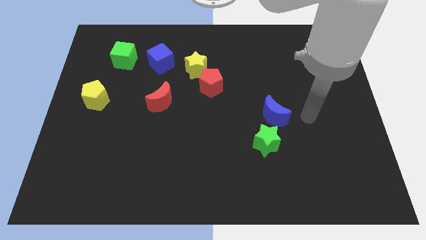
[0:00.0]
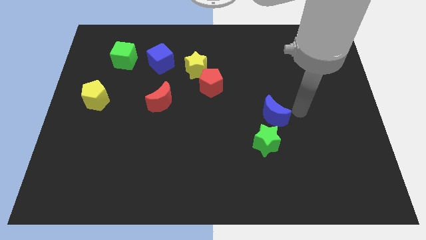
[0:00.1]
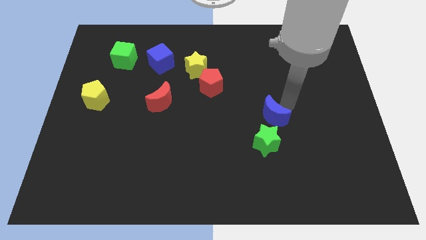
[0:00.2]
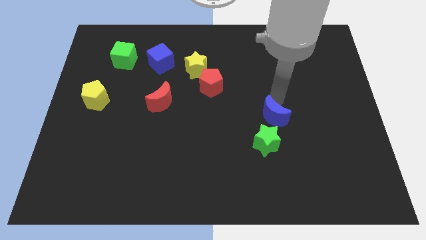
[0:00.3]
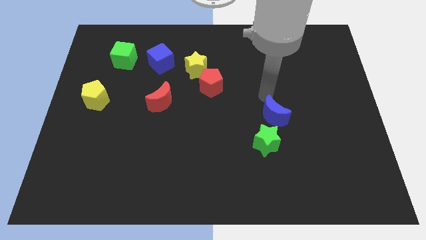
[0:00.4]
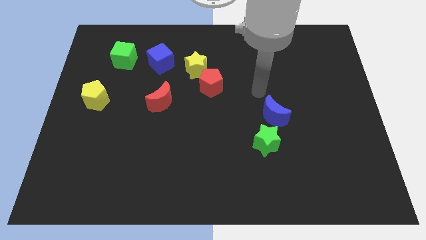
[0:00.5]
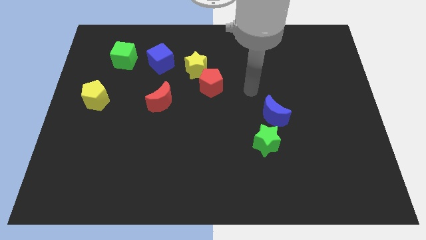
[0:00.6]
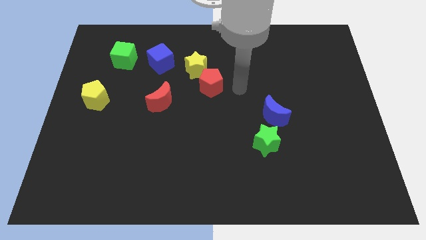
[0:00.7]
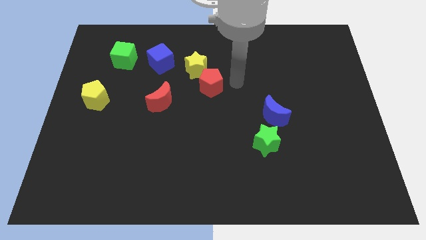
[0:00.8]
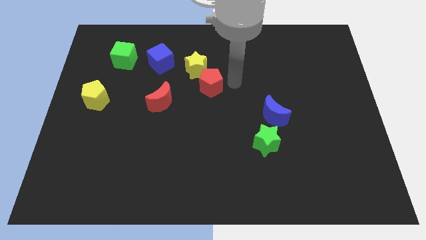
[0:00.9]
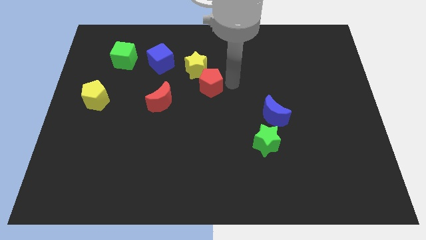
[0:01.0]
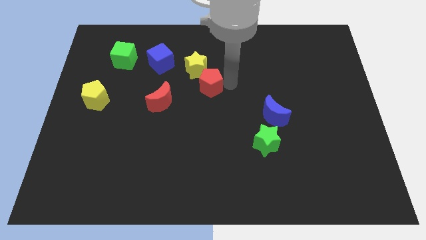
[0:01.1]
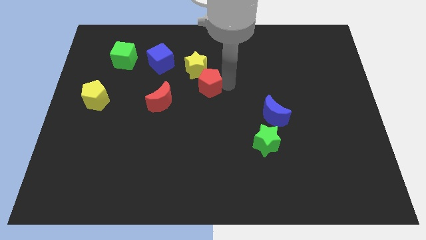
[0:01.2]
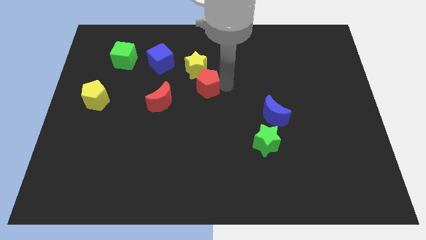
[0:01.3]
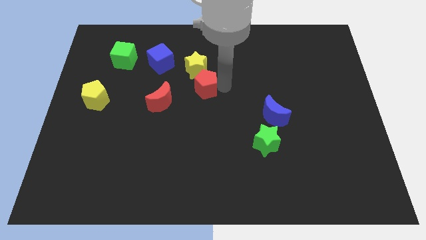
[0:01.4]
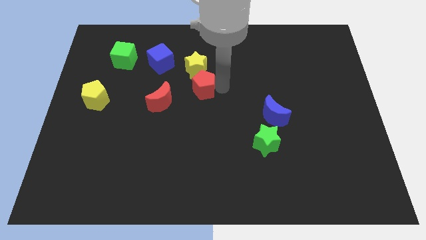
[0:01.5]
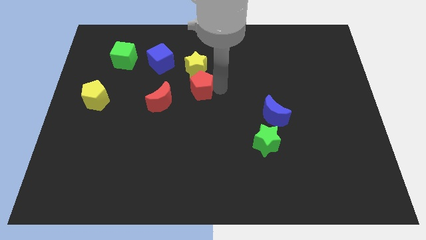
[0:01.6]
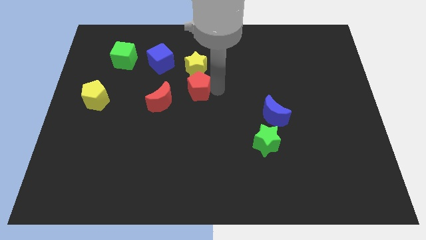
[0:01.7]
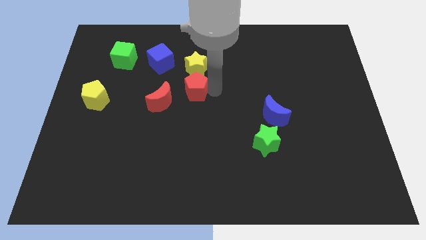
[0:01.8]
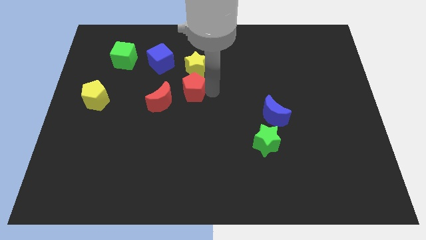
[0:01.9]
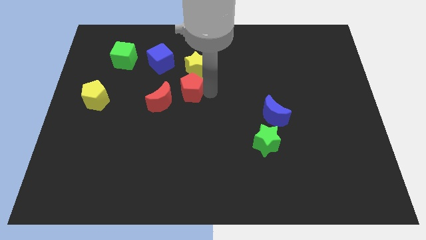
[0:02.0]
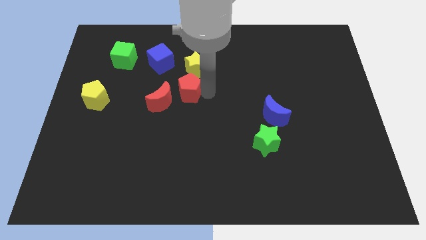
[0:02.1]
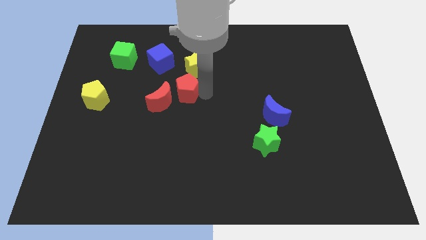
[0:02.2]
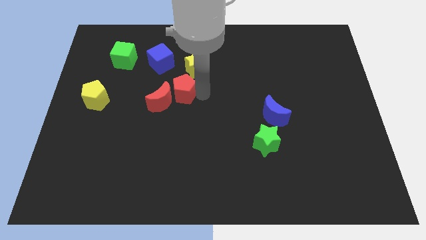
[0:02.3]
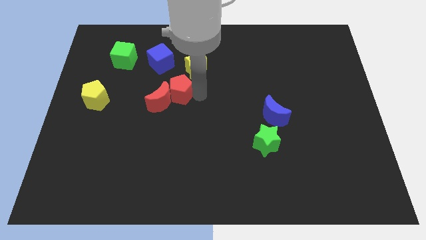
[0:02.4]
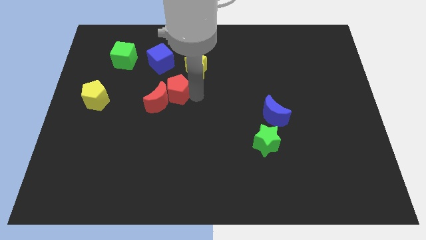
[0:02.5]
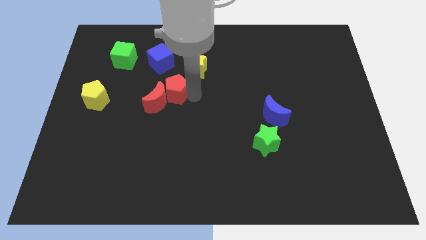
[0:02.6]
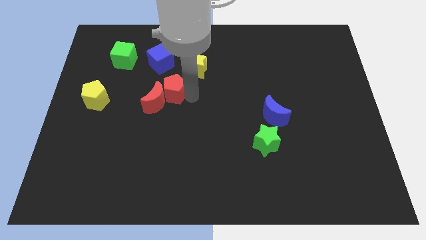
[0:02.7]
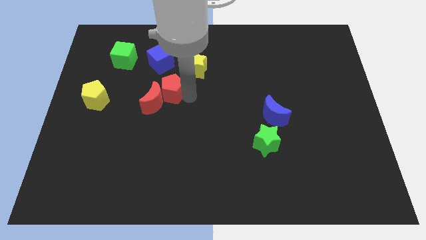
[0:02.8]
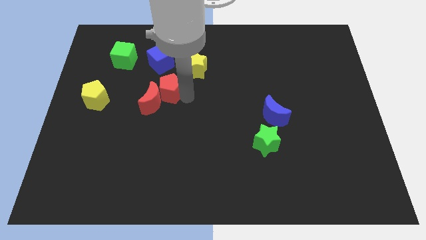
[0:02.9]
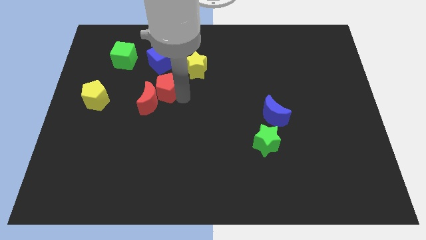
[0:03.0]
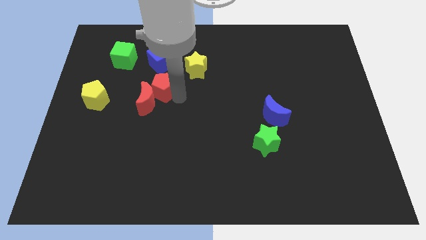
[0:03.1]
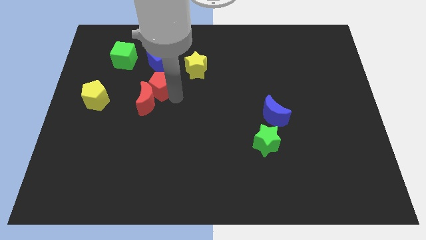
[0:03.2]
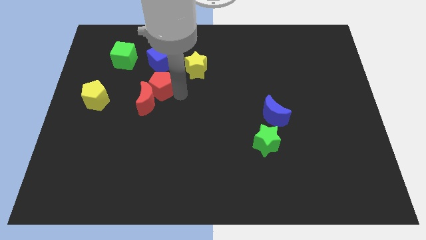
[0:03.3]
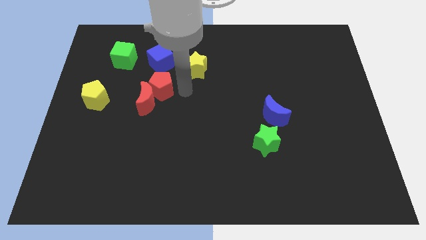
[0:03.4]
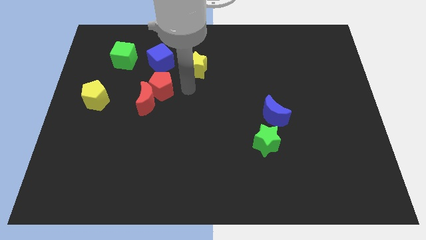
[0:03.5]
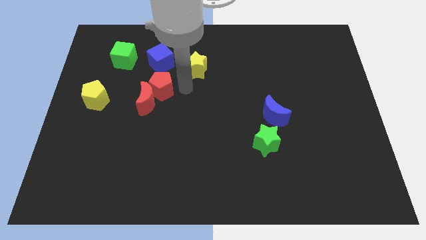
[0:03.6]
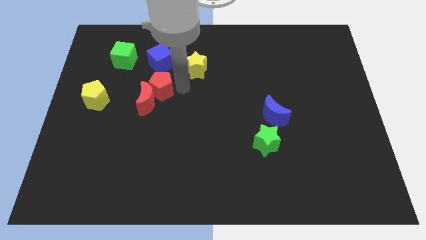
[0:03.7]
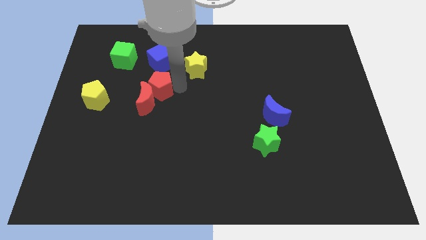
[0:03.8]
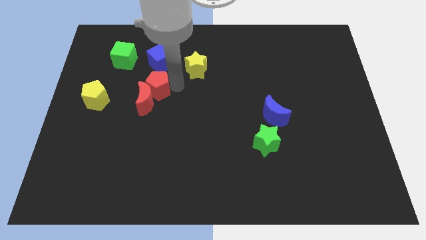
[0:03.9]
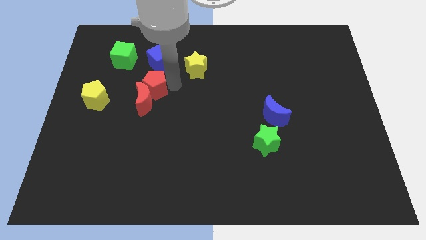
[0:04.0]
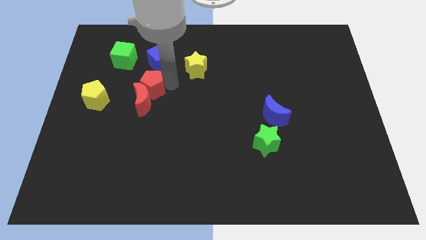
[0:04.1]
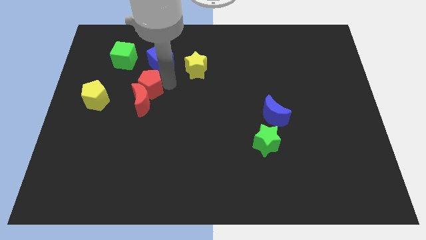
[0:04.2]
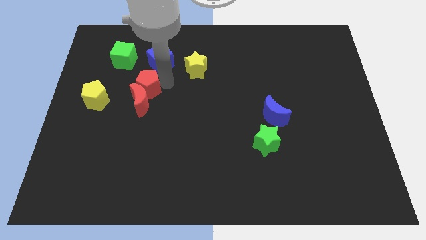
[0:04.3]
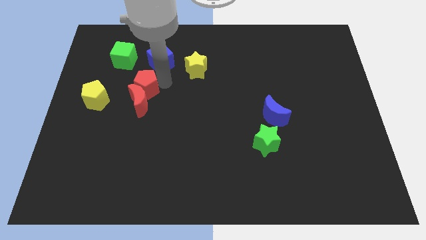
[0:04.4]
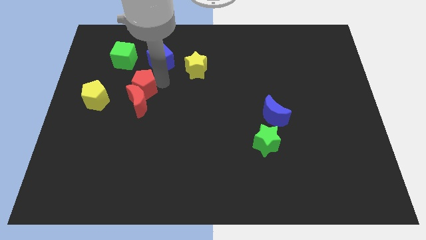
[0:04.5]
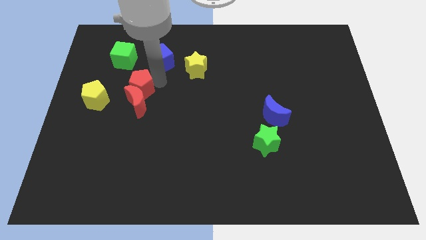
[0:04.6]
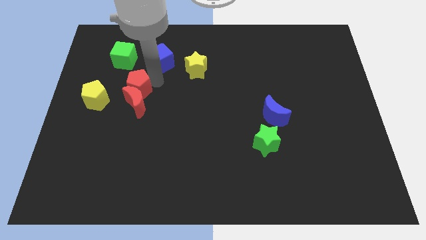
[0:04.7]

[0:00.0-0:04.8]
put the red pentagon to the bottom side of the green cube

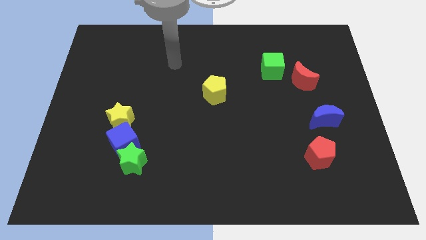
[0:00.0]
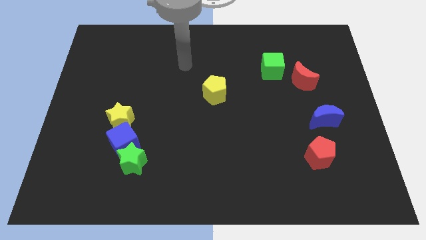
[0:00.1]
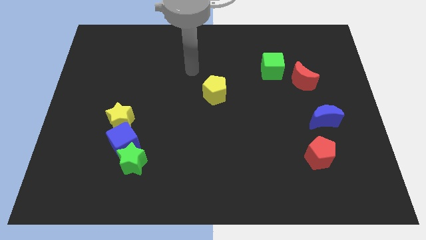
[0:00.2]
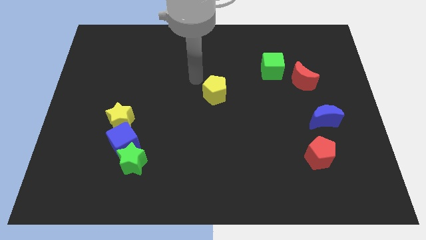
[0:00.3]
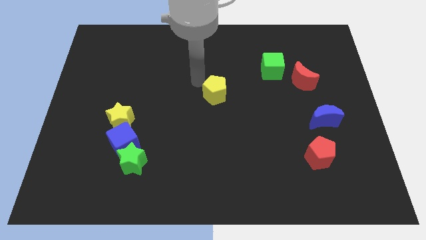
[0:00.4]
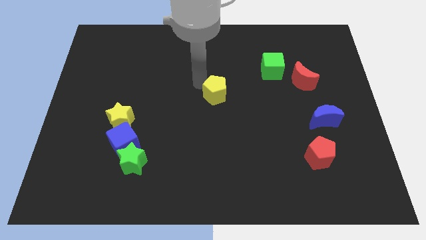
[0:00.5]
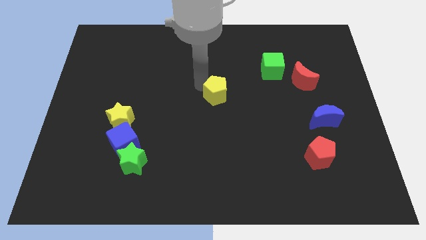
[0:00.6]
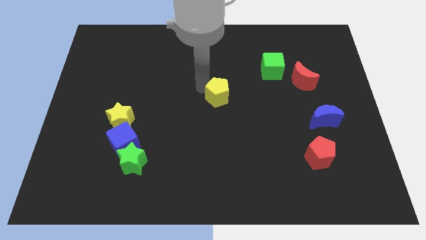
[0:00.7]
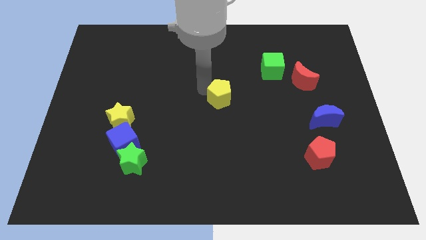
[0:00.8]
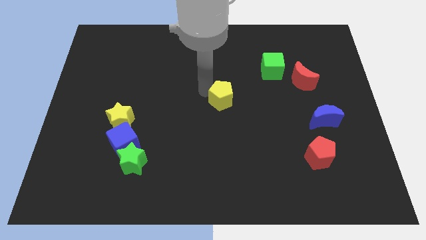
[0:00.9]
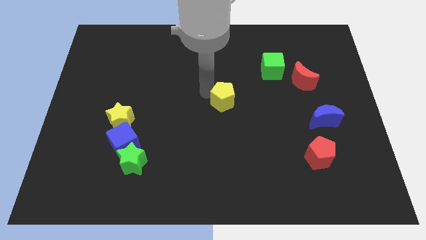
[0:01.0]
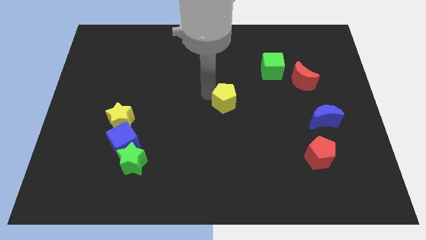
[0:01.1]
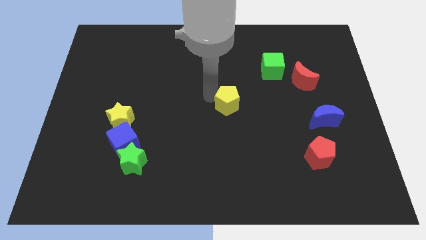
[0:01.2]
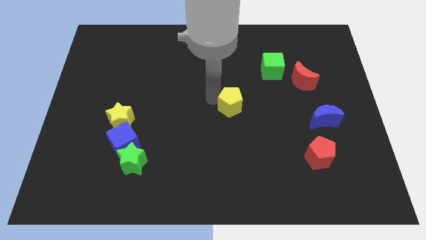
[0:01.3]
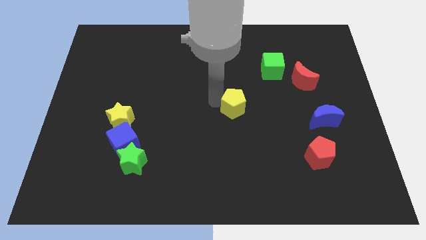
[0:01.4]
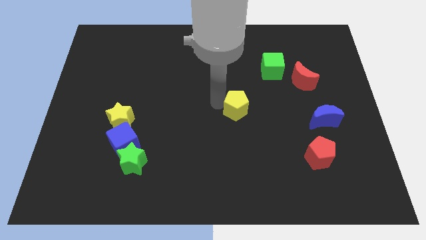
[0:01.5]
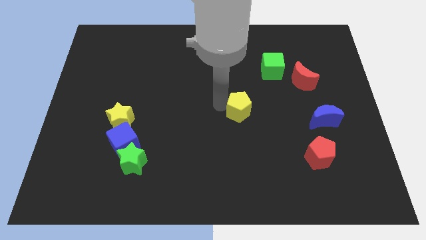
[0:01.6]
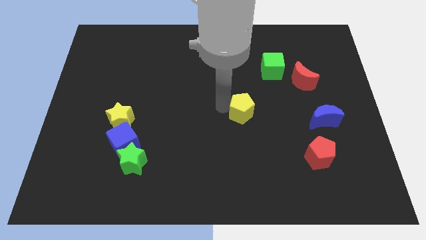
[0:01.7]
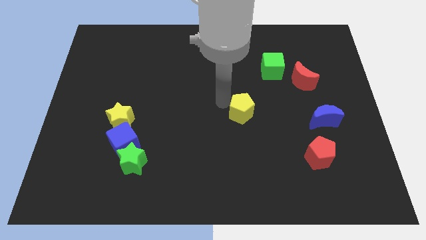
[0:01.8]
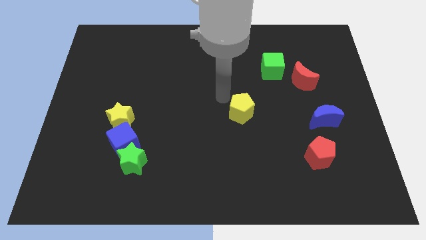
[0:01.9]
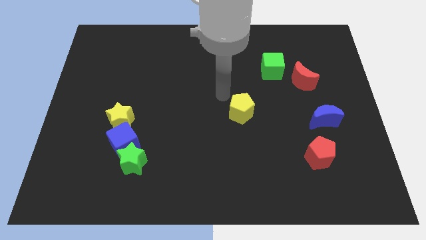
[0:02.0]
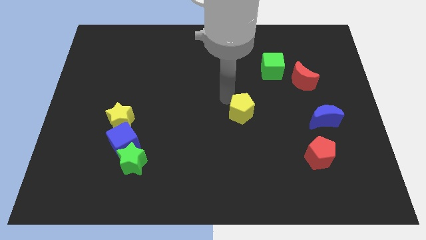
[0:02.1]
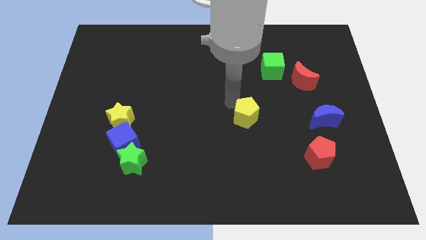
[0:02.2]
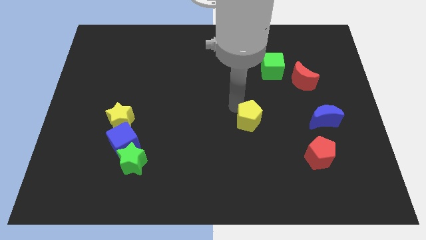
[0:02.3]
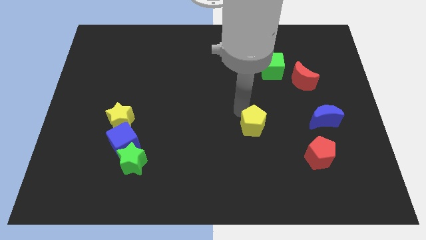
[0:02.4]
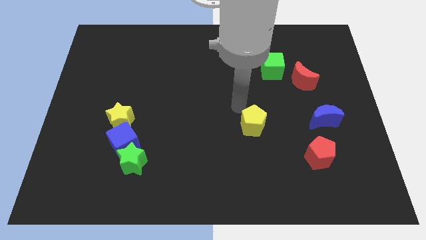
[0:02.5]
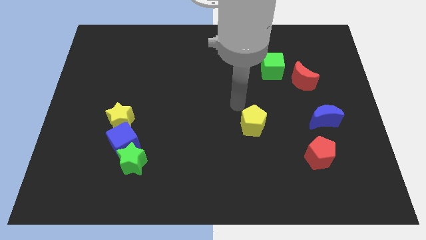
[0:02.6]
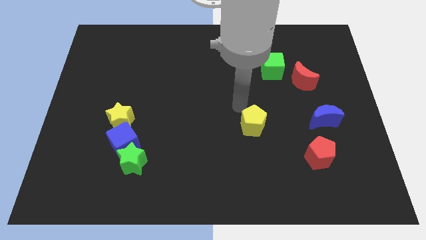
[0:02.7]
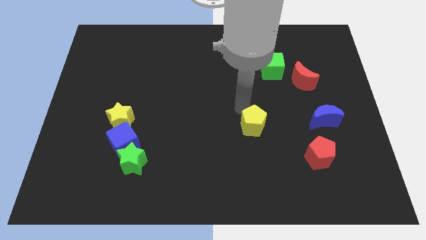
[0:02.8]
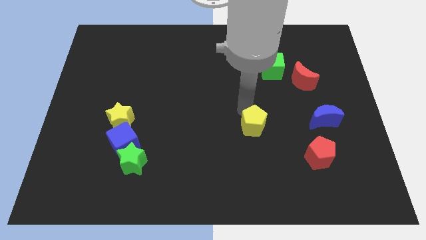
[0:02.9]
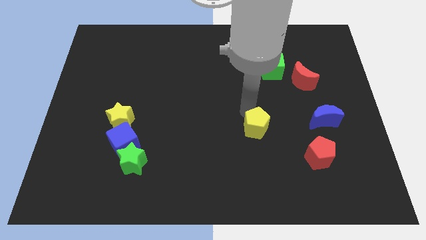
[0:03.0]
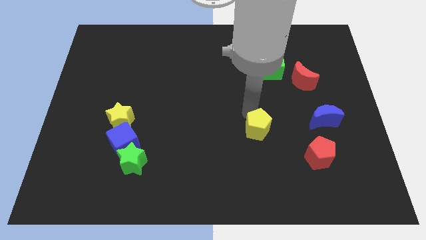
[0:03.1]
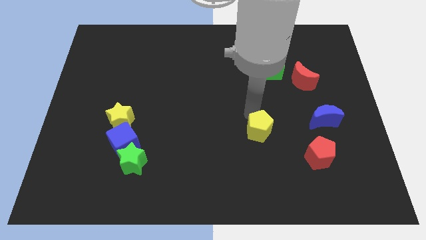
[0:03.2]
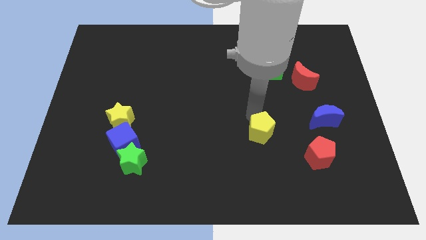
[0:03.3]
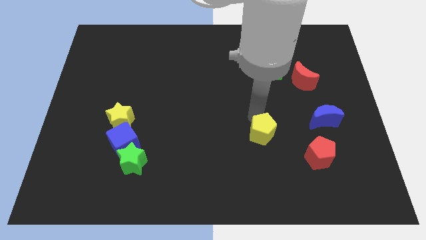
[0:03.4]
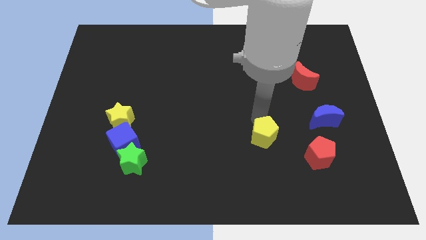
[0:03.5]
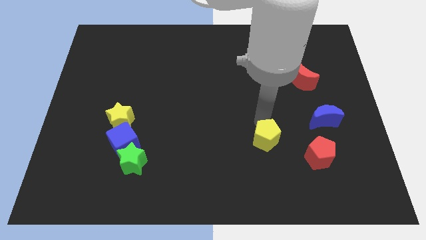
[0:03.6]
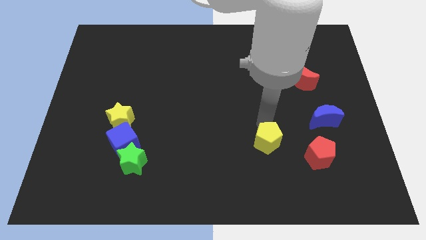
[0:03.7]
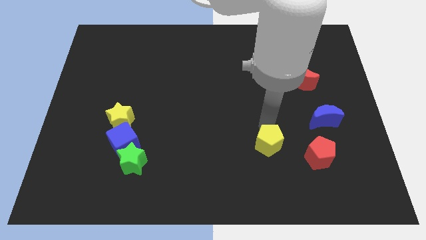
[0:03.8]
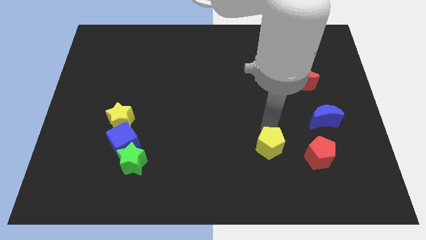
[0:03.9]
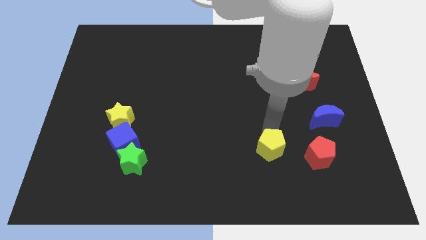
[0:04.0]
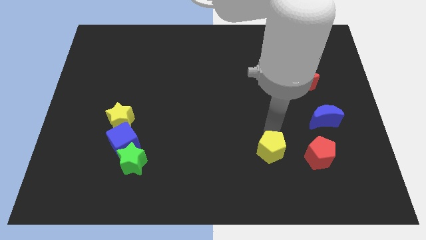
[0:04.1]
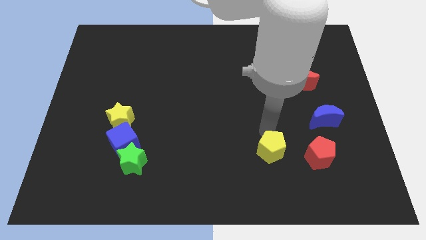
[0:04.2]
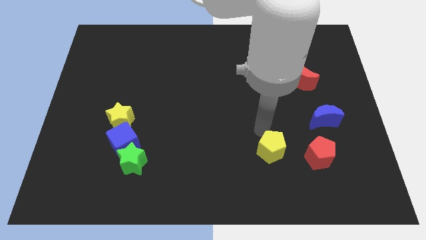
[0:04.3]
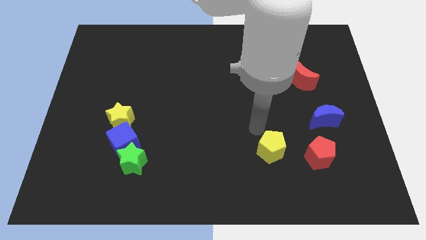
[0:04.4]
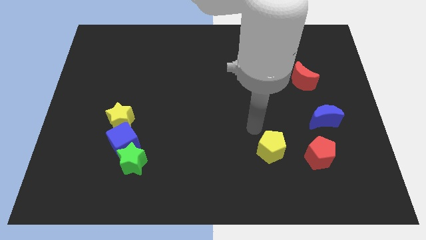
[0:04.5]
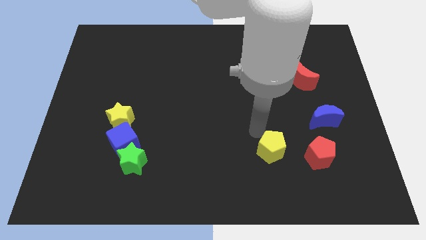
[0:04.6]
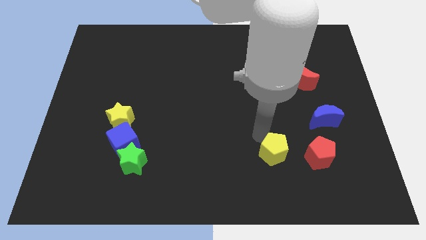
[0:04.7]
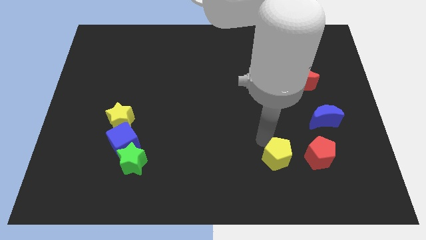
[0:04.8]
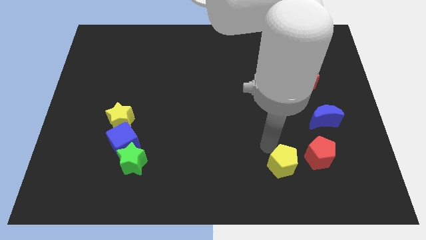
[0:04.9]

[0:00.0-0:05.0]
slide the yellow pentagon to the bottom left of the red pentagon
